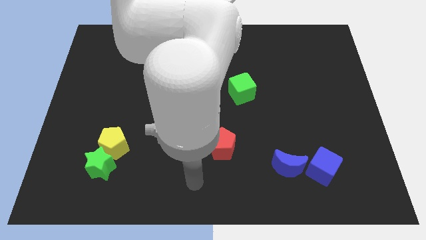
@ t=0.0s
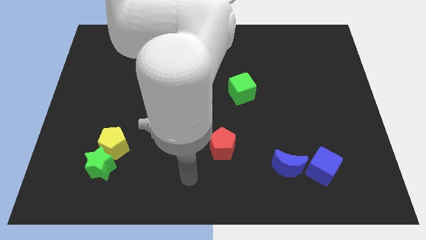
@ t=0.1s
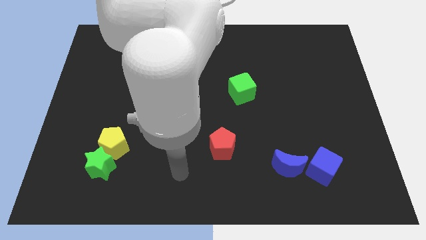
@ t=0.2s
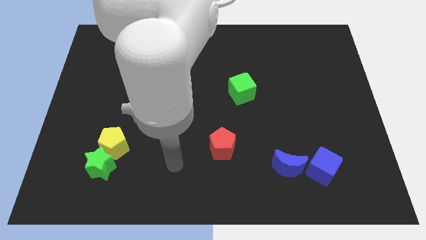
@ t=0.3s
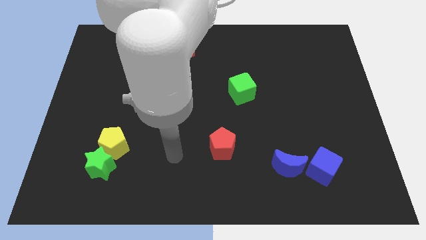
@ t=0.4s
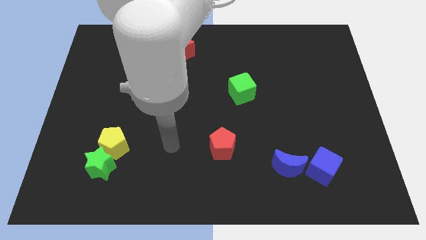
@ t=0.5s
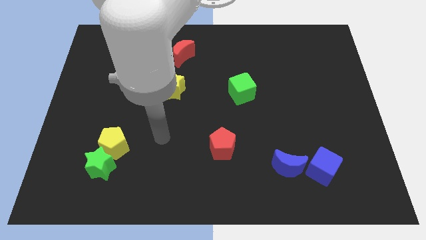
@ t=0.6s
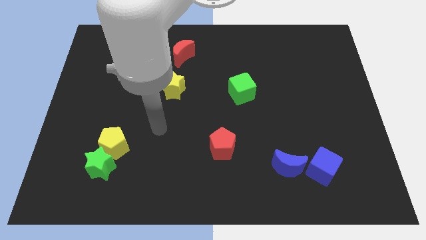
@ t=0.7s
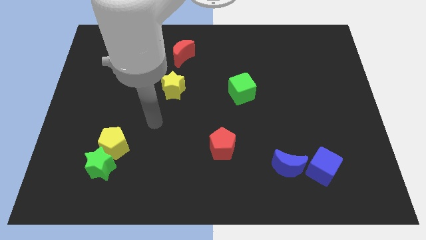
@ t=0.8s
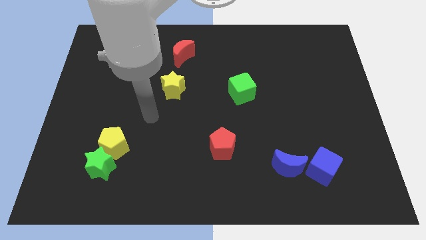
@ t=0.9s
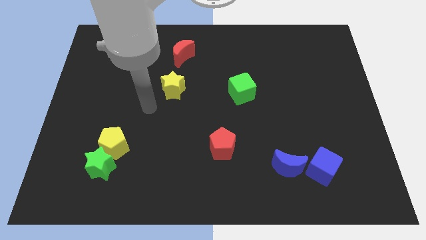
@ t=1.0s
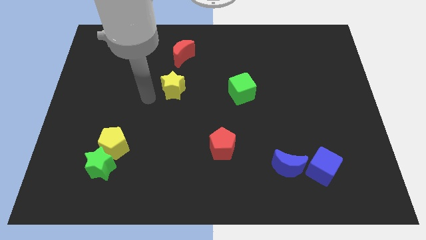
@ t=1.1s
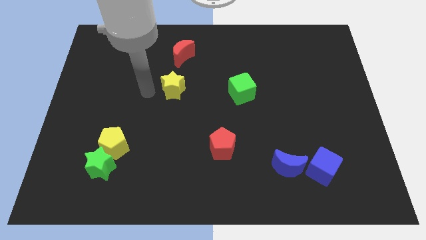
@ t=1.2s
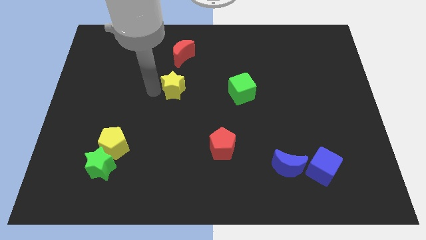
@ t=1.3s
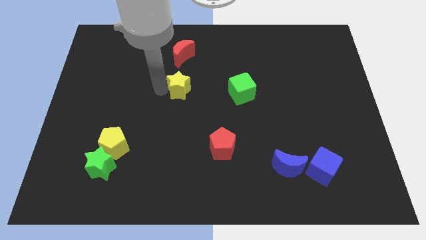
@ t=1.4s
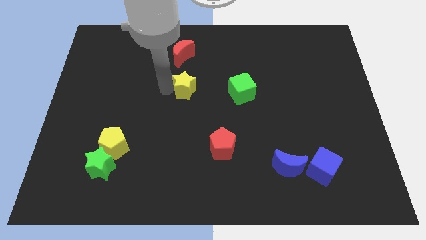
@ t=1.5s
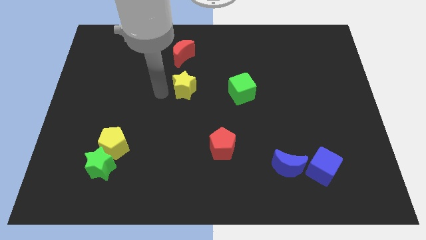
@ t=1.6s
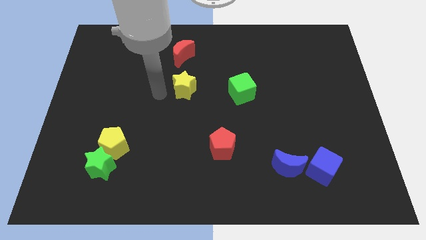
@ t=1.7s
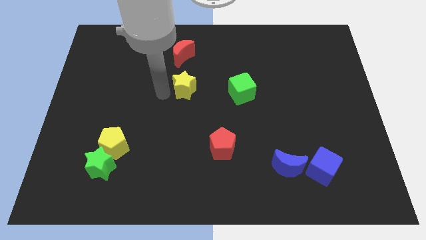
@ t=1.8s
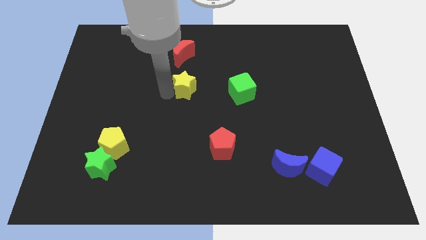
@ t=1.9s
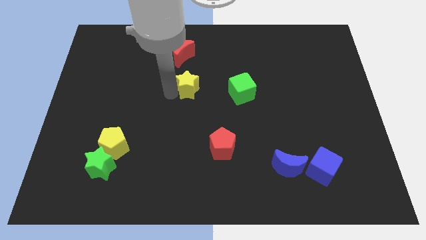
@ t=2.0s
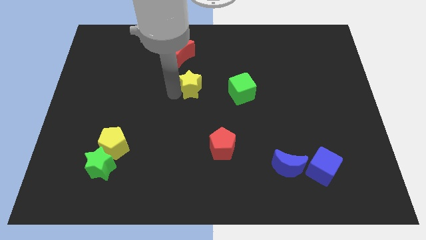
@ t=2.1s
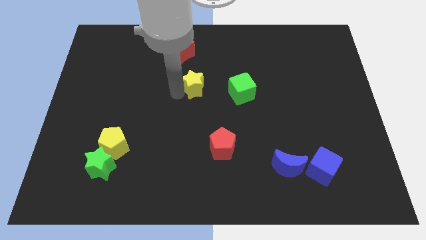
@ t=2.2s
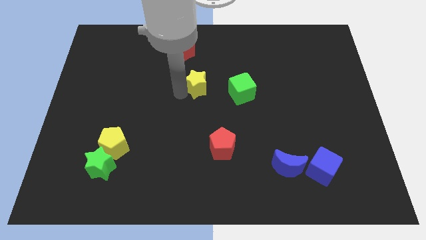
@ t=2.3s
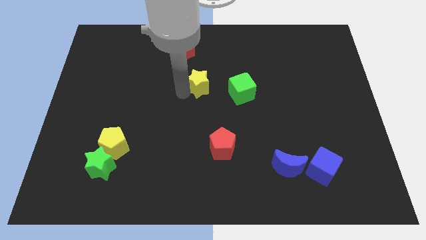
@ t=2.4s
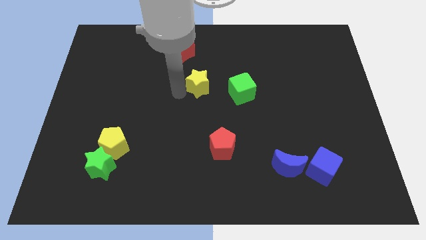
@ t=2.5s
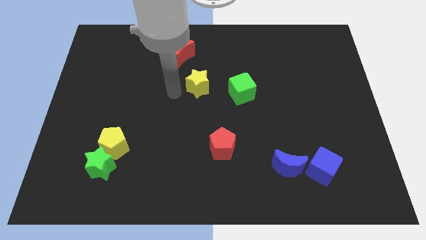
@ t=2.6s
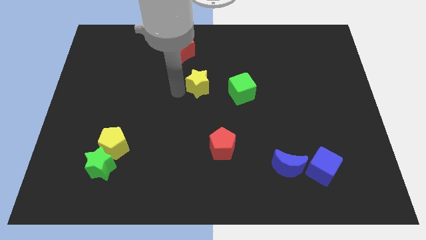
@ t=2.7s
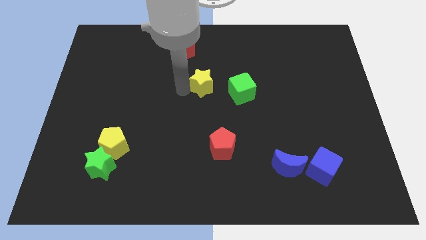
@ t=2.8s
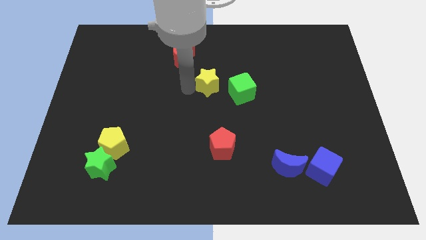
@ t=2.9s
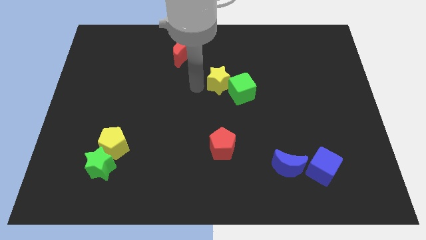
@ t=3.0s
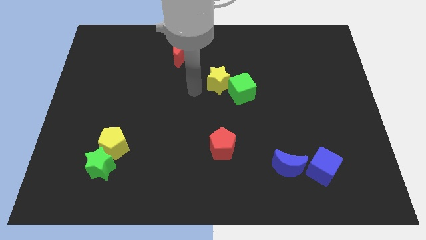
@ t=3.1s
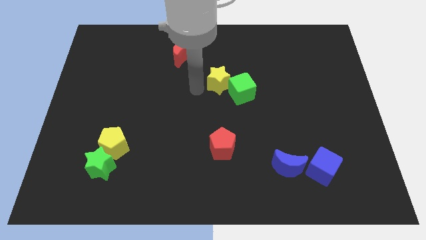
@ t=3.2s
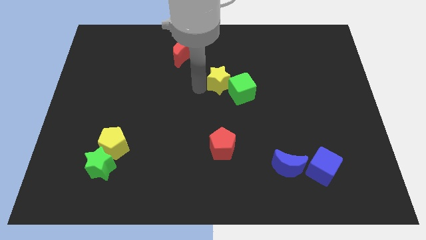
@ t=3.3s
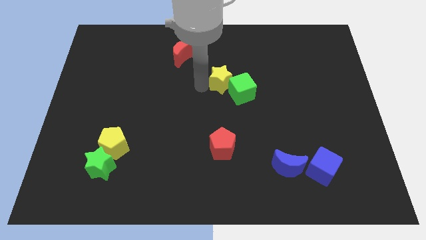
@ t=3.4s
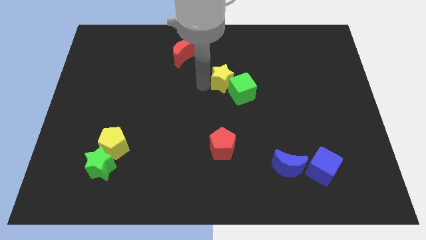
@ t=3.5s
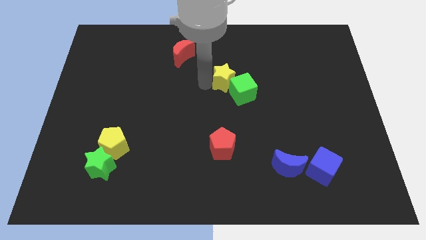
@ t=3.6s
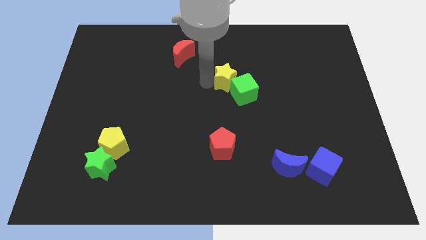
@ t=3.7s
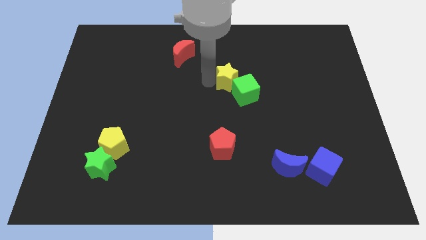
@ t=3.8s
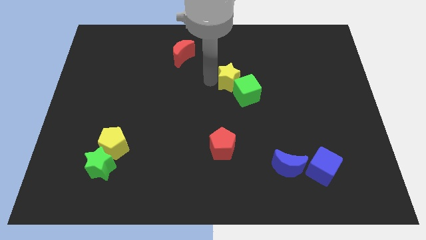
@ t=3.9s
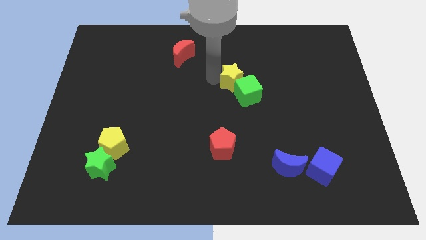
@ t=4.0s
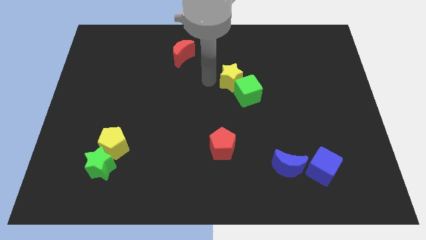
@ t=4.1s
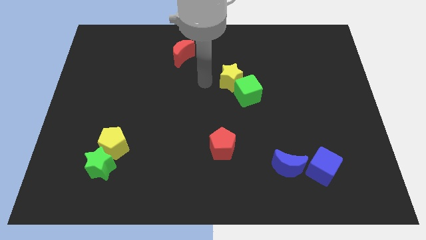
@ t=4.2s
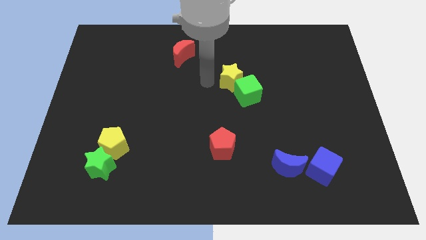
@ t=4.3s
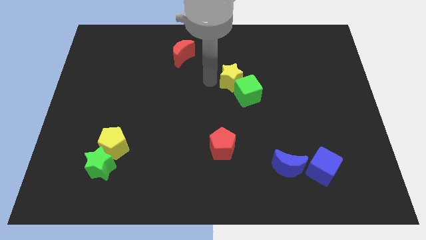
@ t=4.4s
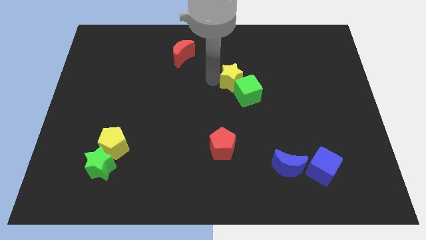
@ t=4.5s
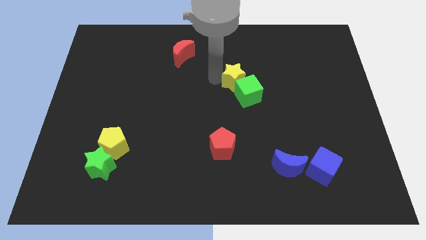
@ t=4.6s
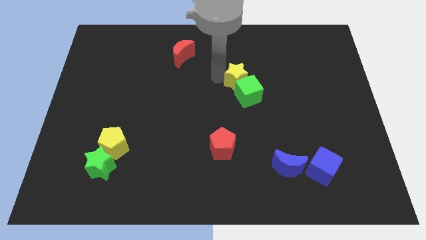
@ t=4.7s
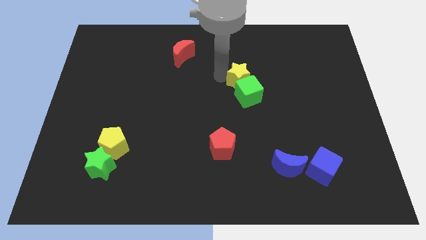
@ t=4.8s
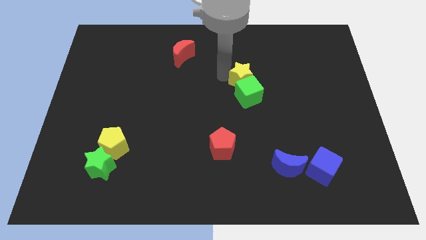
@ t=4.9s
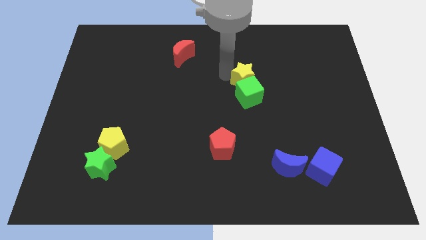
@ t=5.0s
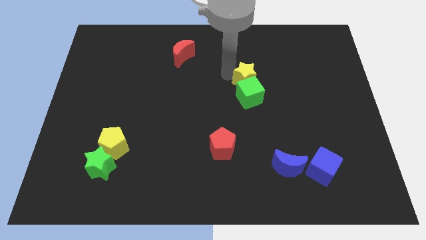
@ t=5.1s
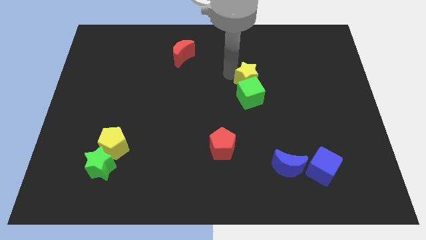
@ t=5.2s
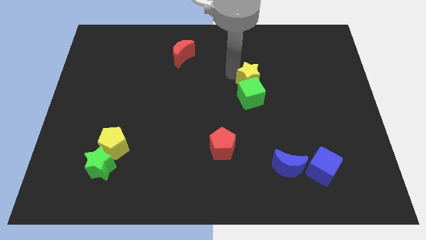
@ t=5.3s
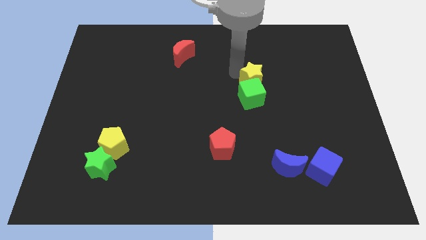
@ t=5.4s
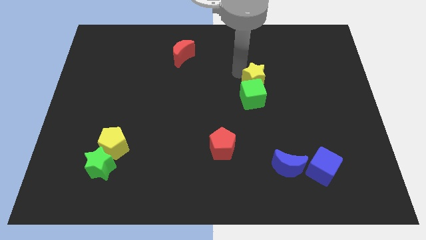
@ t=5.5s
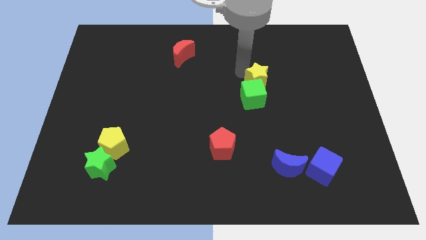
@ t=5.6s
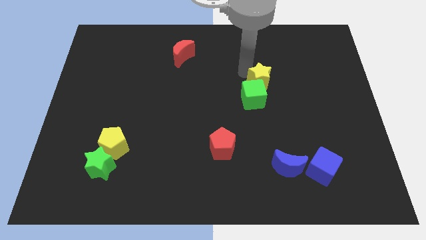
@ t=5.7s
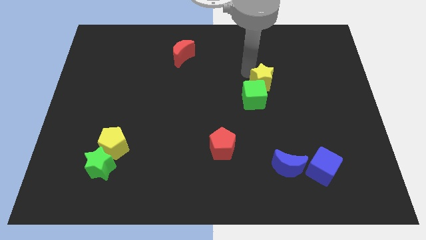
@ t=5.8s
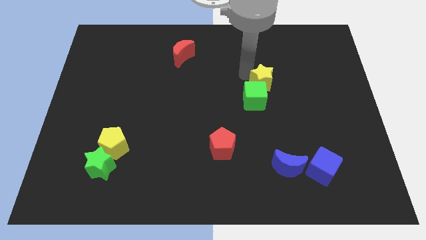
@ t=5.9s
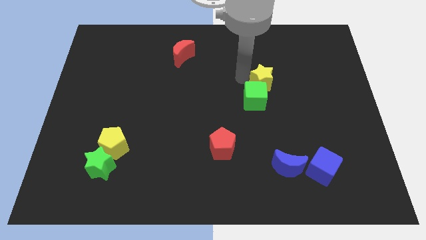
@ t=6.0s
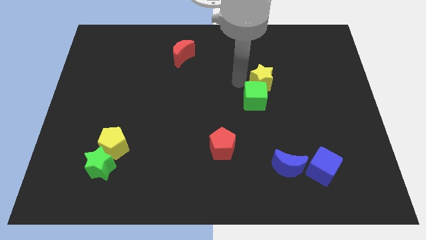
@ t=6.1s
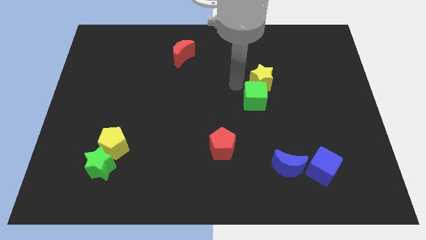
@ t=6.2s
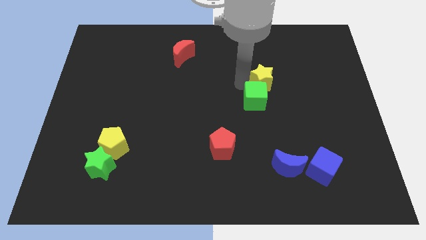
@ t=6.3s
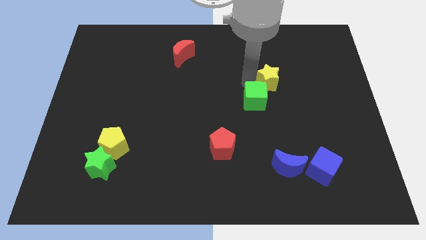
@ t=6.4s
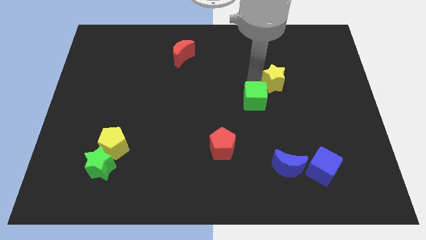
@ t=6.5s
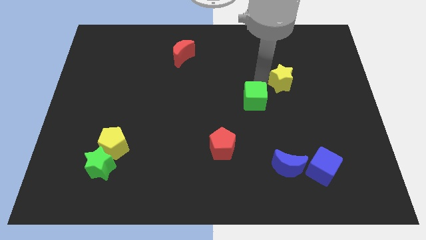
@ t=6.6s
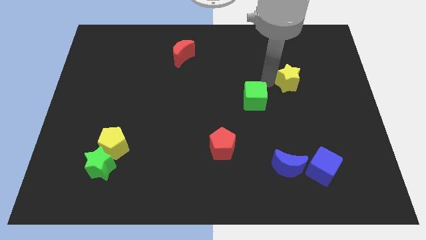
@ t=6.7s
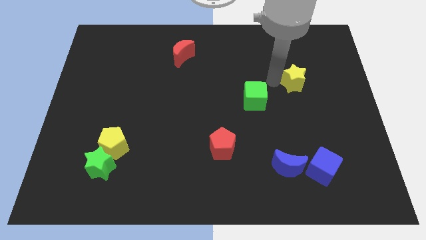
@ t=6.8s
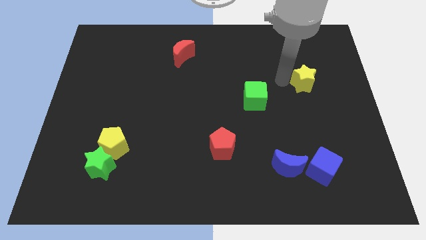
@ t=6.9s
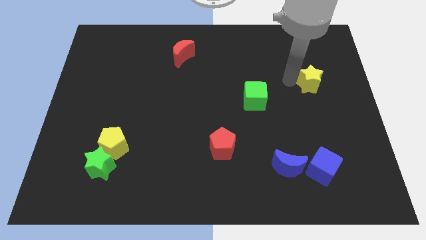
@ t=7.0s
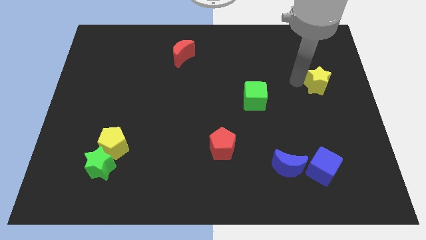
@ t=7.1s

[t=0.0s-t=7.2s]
move the yellow star to the right side of the board
